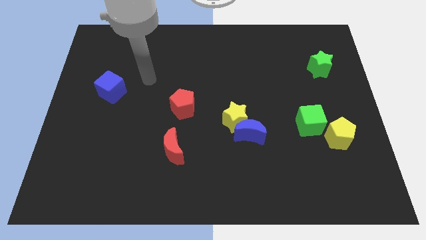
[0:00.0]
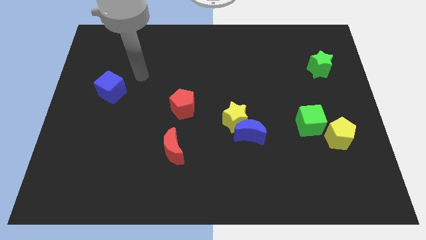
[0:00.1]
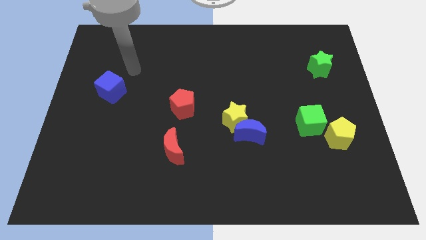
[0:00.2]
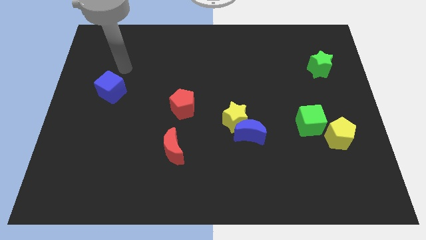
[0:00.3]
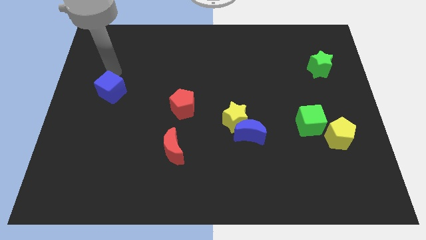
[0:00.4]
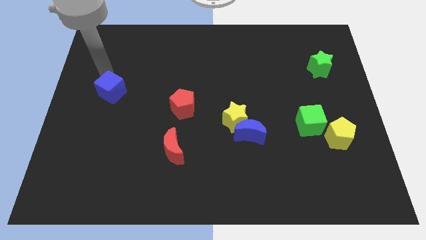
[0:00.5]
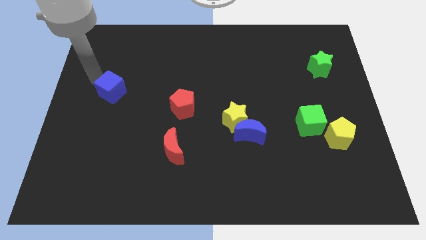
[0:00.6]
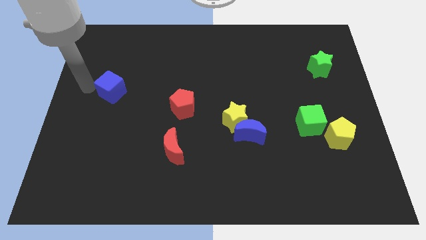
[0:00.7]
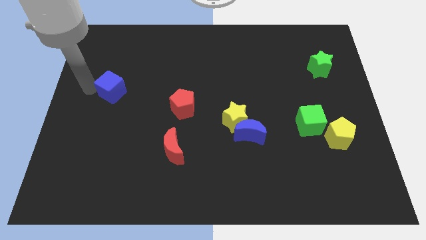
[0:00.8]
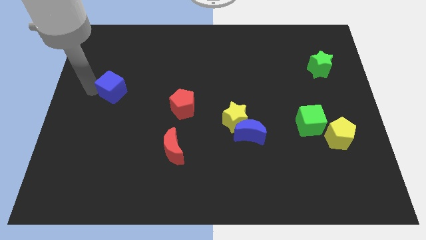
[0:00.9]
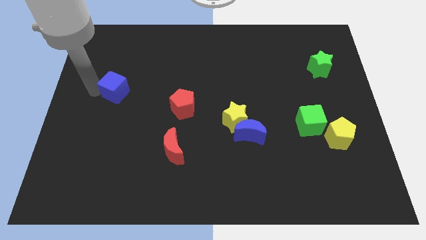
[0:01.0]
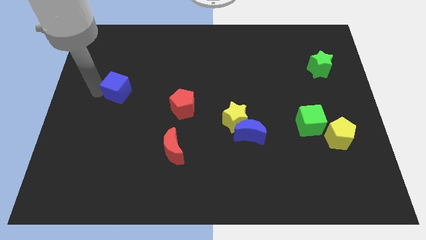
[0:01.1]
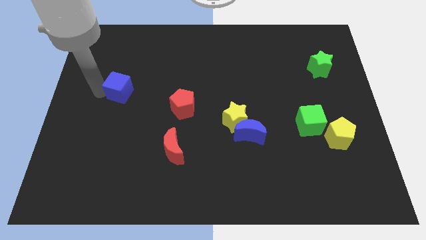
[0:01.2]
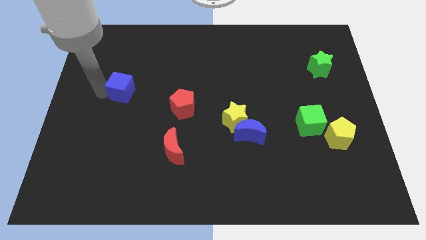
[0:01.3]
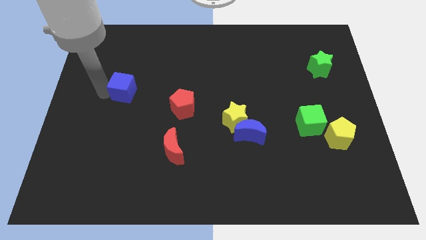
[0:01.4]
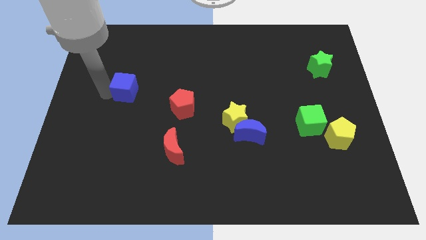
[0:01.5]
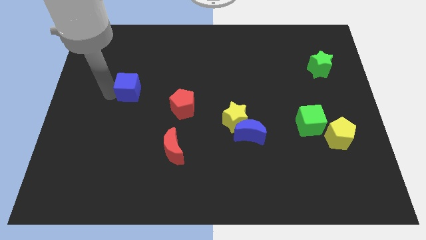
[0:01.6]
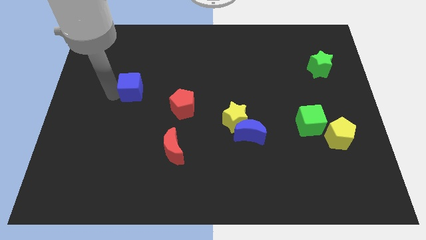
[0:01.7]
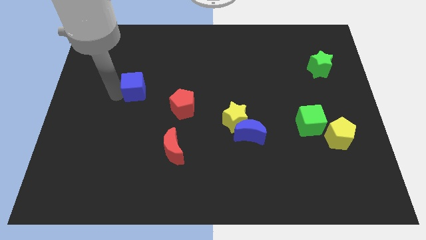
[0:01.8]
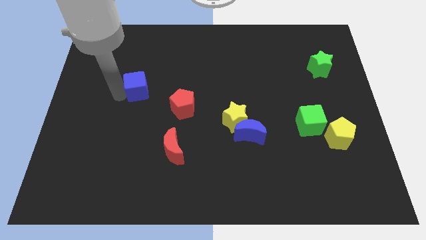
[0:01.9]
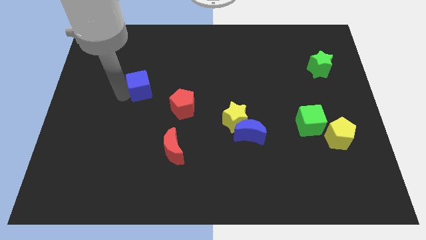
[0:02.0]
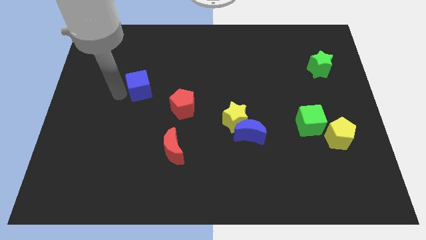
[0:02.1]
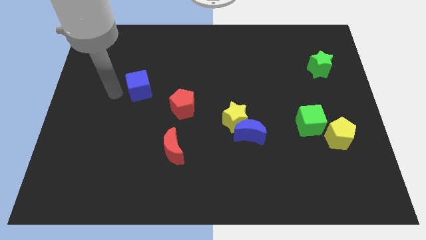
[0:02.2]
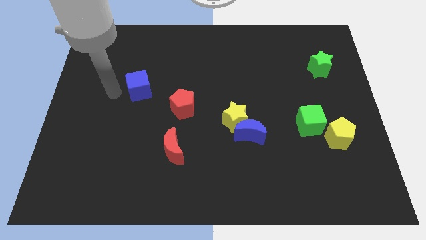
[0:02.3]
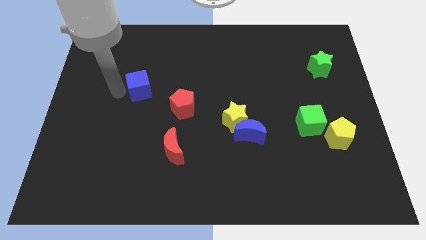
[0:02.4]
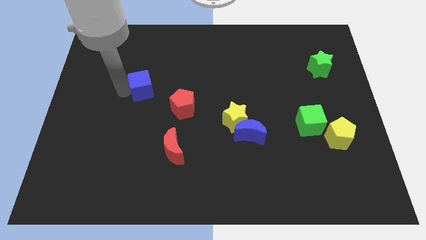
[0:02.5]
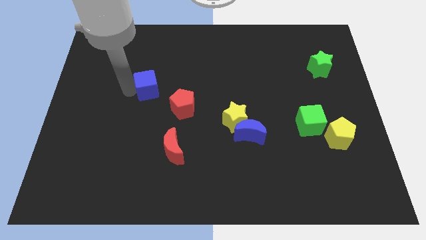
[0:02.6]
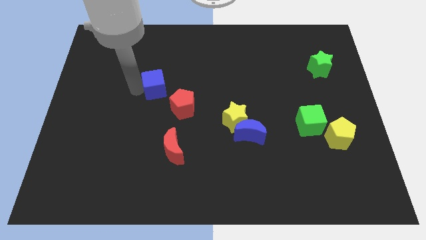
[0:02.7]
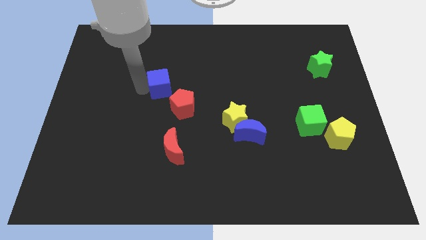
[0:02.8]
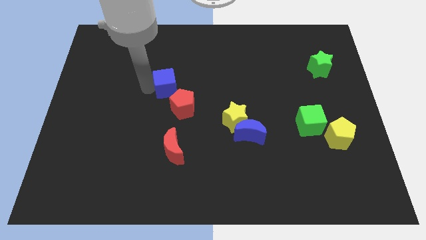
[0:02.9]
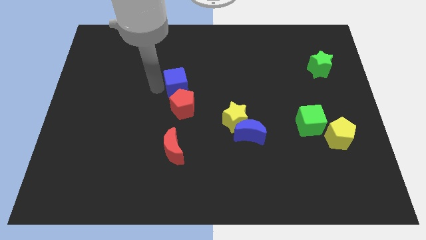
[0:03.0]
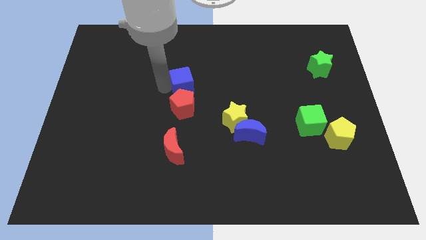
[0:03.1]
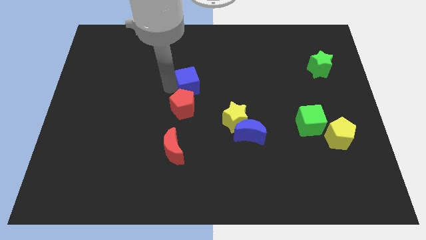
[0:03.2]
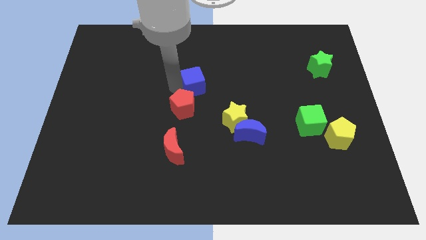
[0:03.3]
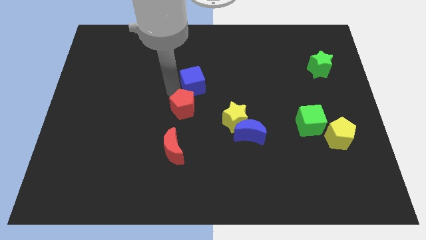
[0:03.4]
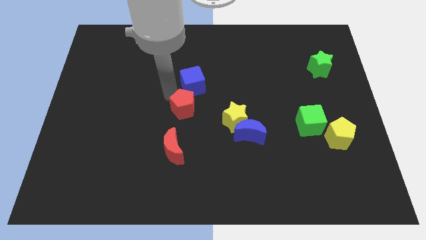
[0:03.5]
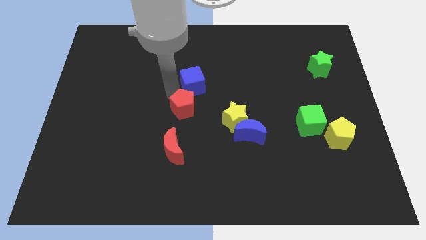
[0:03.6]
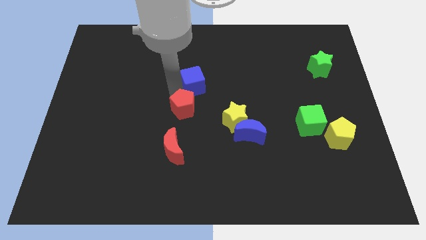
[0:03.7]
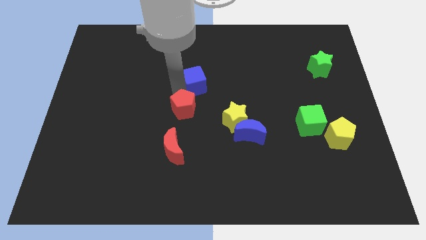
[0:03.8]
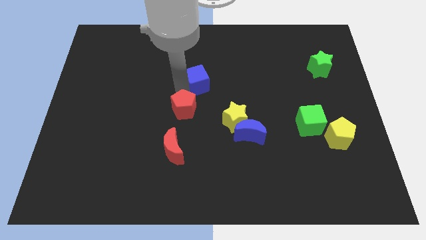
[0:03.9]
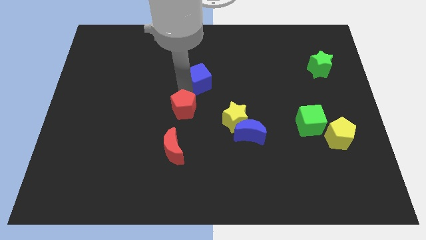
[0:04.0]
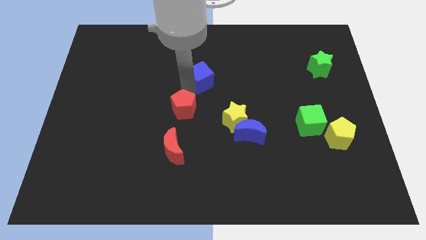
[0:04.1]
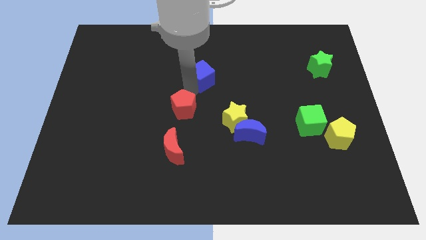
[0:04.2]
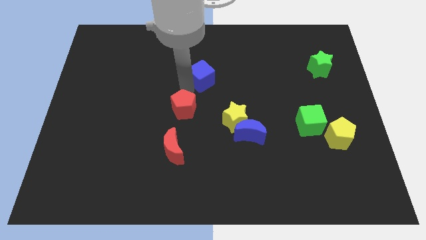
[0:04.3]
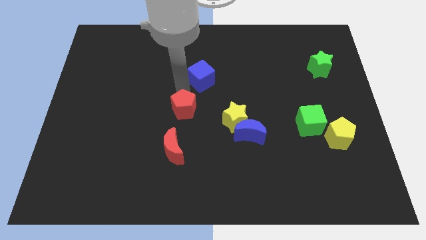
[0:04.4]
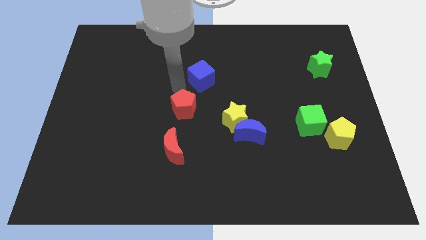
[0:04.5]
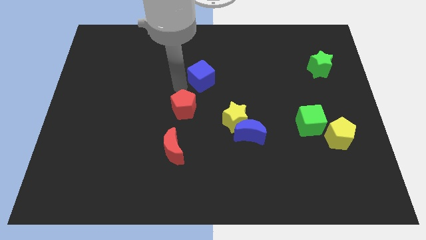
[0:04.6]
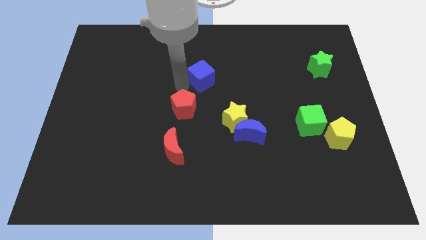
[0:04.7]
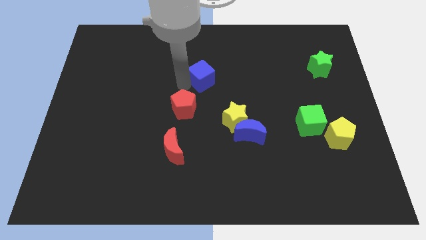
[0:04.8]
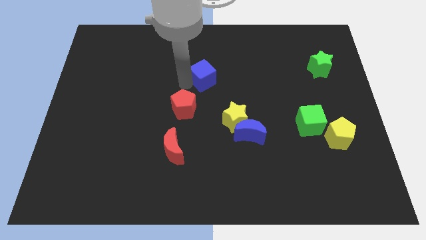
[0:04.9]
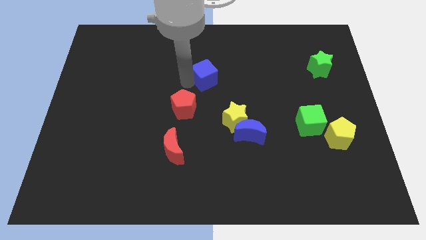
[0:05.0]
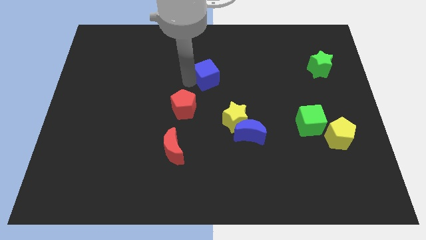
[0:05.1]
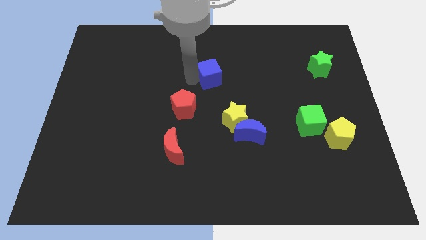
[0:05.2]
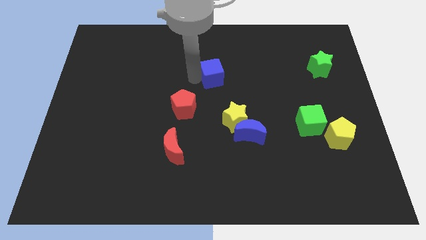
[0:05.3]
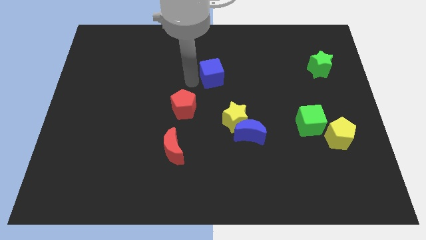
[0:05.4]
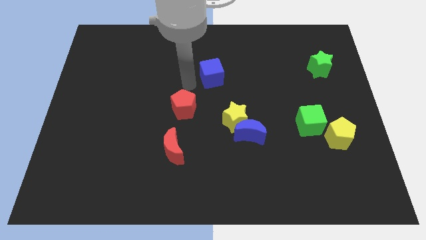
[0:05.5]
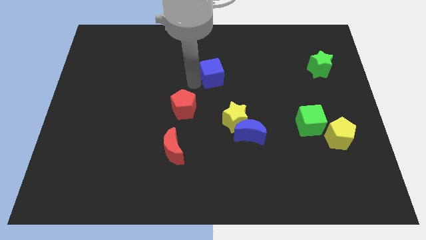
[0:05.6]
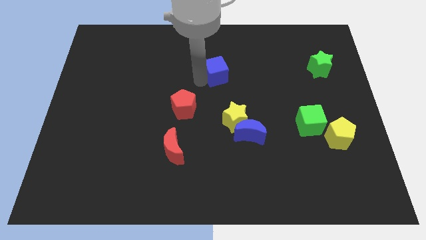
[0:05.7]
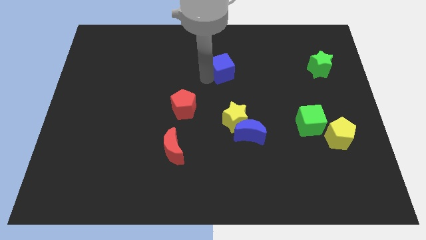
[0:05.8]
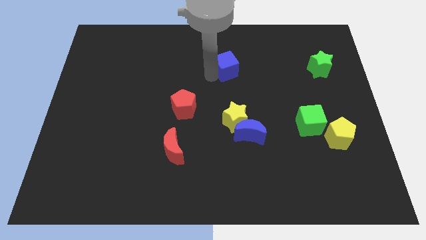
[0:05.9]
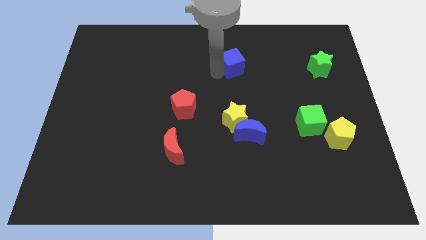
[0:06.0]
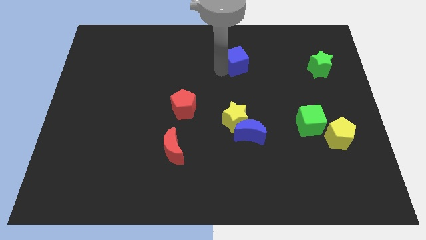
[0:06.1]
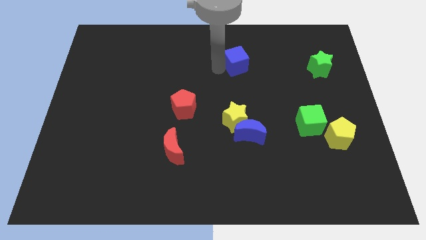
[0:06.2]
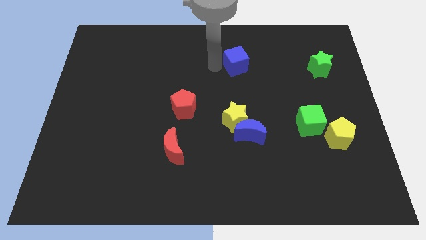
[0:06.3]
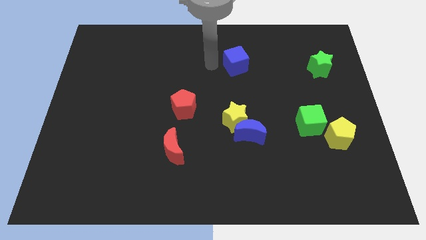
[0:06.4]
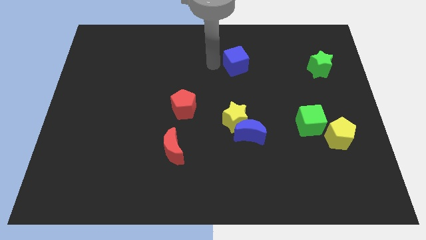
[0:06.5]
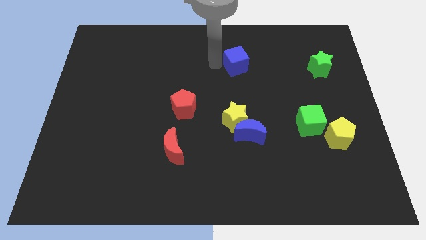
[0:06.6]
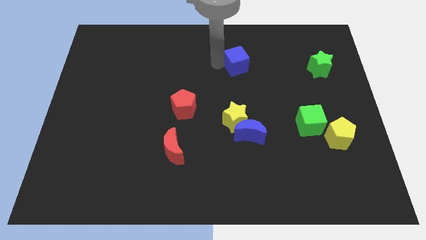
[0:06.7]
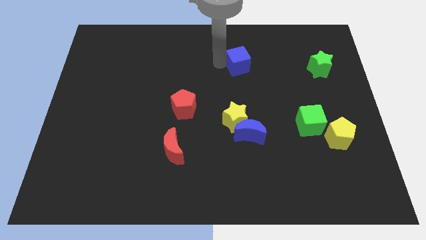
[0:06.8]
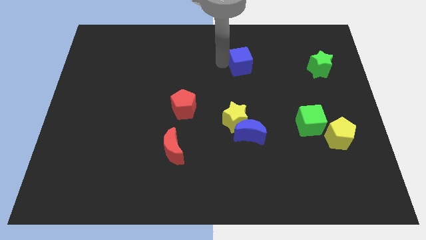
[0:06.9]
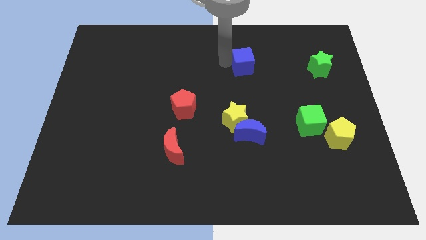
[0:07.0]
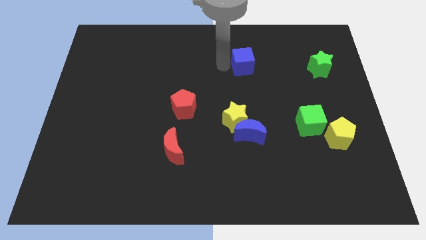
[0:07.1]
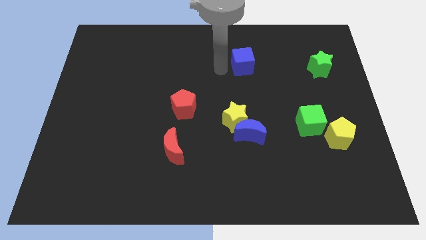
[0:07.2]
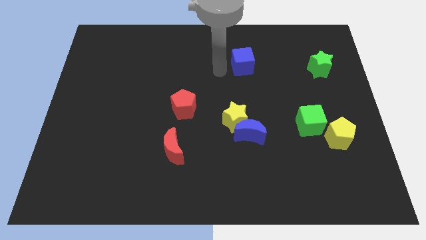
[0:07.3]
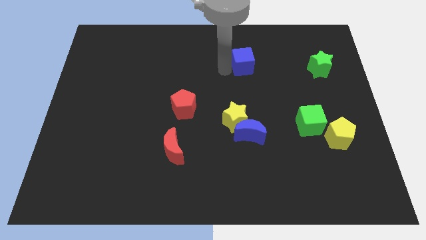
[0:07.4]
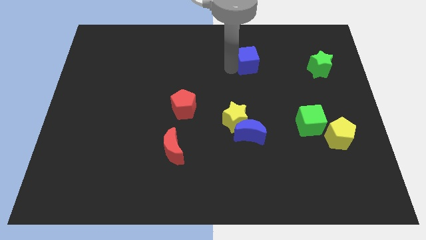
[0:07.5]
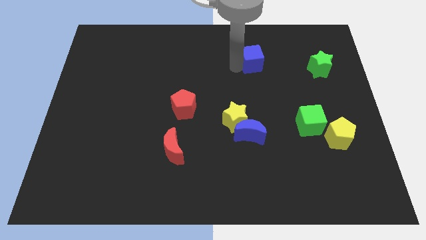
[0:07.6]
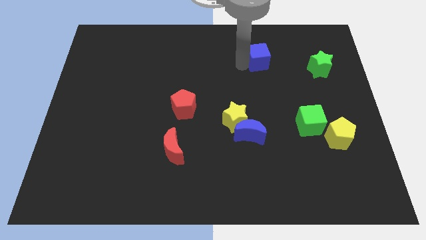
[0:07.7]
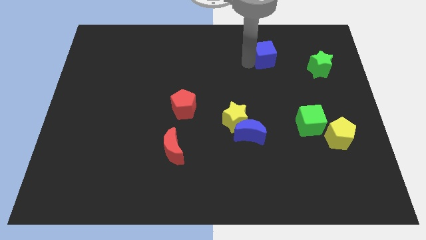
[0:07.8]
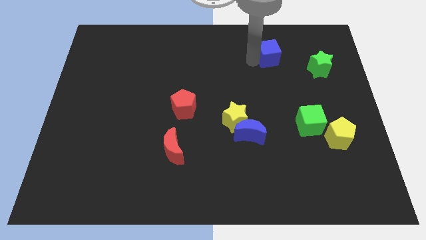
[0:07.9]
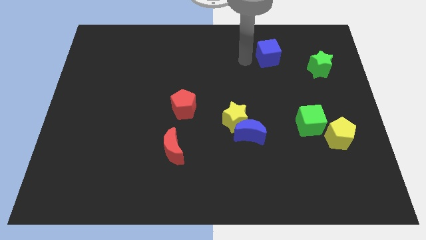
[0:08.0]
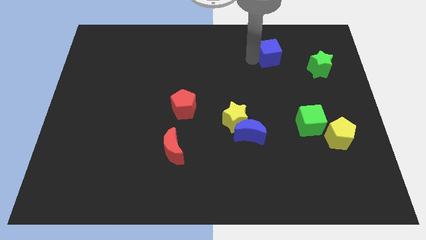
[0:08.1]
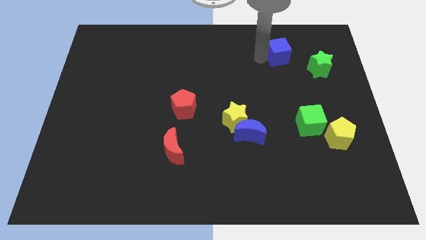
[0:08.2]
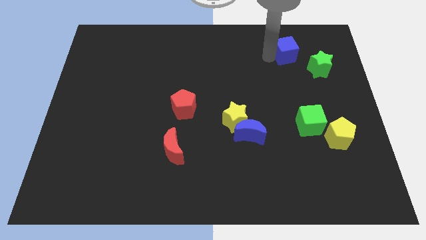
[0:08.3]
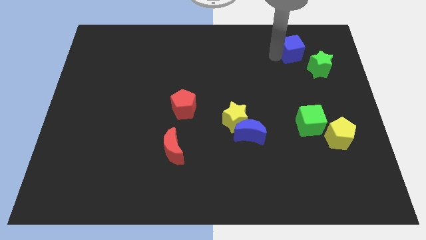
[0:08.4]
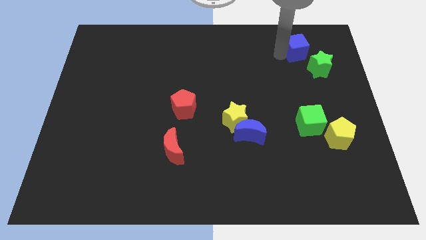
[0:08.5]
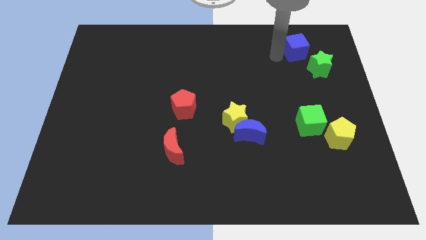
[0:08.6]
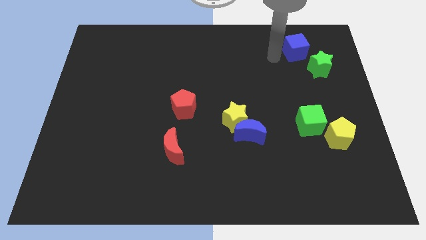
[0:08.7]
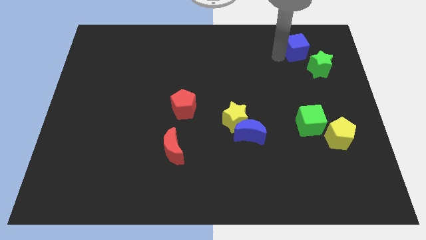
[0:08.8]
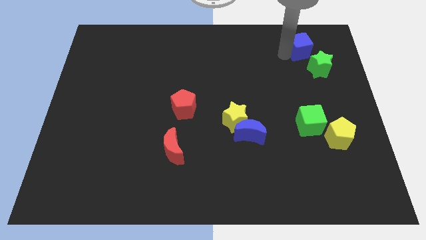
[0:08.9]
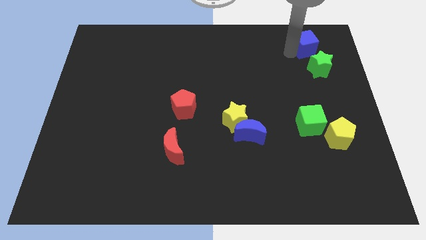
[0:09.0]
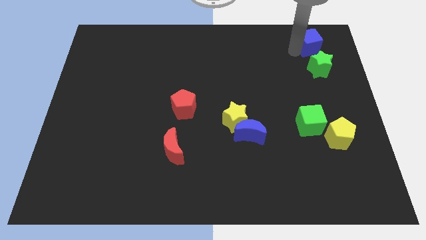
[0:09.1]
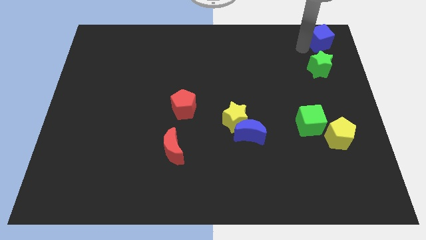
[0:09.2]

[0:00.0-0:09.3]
move the blue cube to the top right of the board
